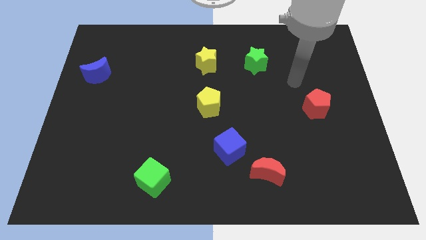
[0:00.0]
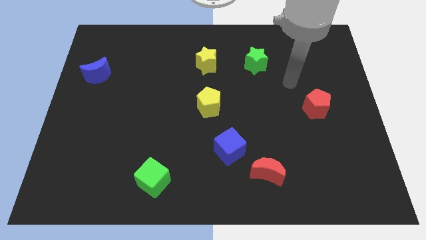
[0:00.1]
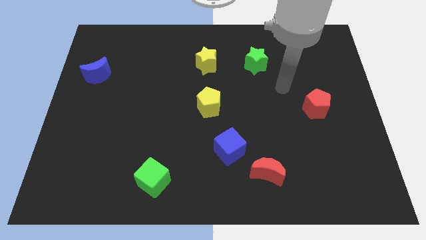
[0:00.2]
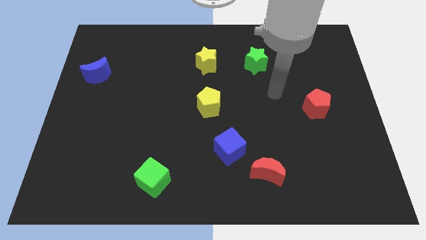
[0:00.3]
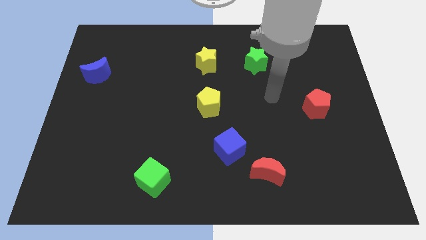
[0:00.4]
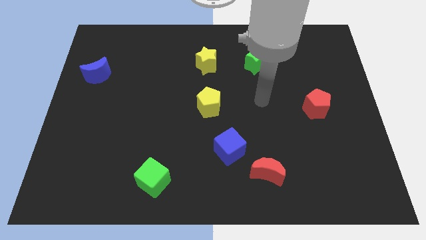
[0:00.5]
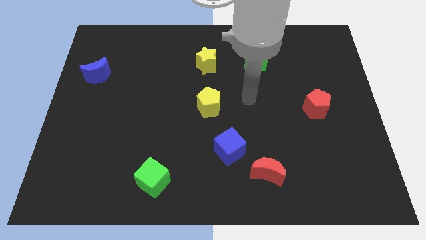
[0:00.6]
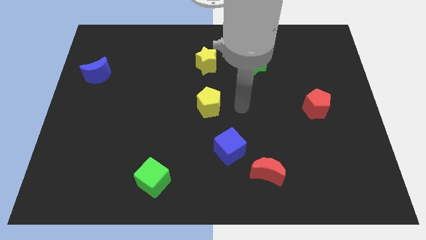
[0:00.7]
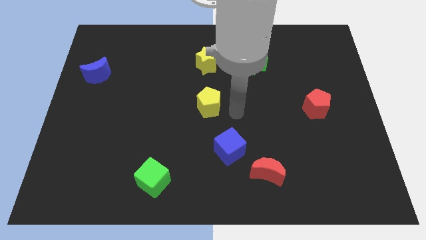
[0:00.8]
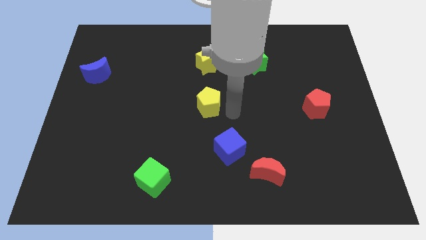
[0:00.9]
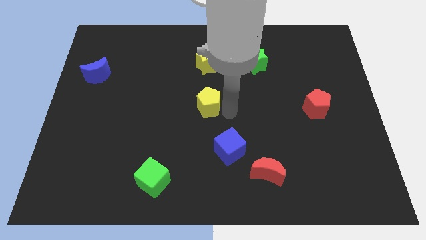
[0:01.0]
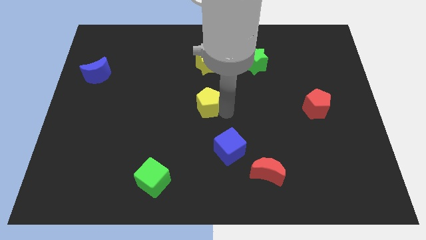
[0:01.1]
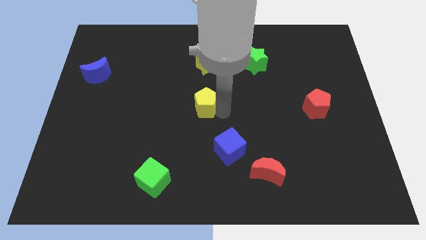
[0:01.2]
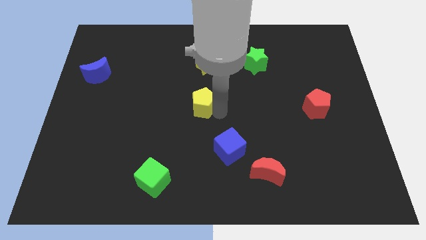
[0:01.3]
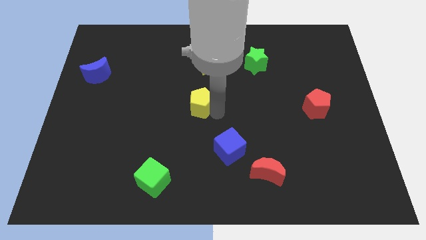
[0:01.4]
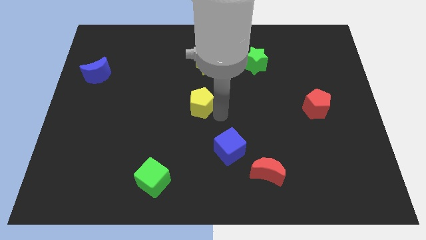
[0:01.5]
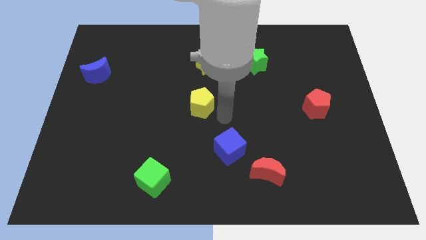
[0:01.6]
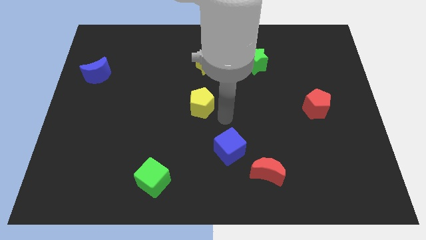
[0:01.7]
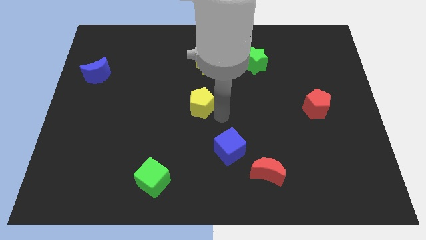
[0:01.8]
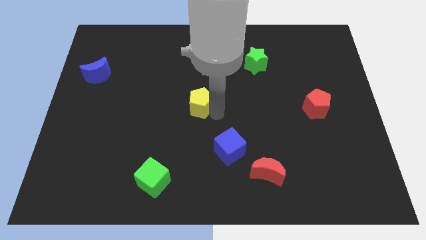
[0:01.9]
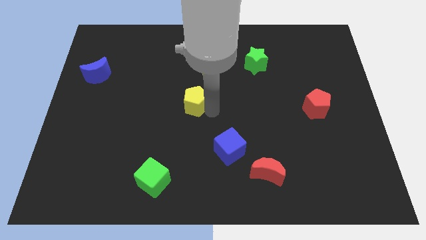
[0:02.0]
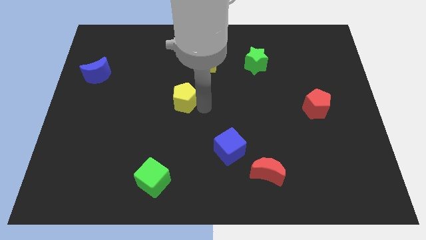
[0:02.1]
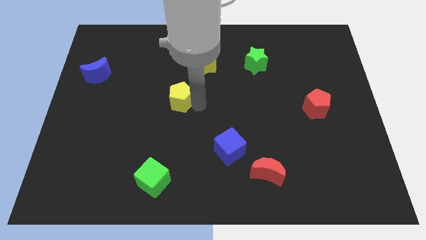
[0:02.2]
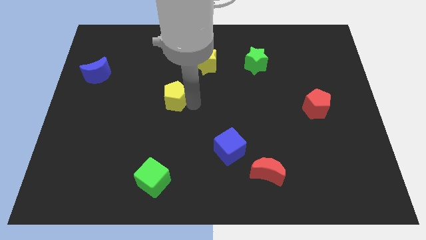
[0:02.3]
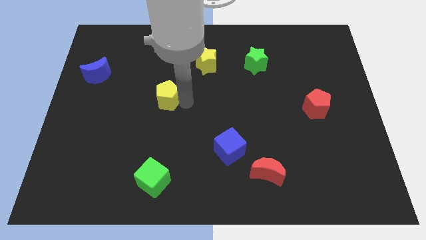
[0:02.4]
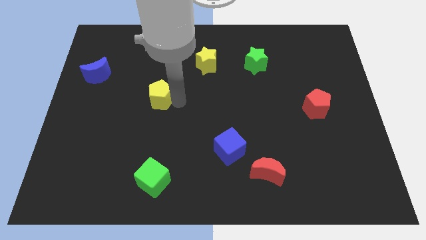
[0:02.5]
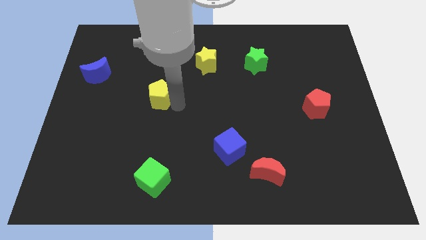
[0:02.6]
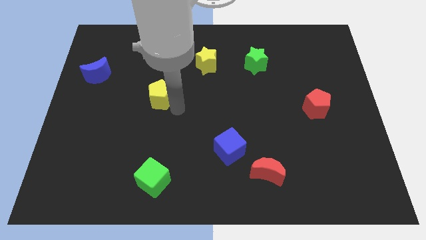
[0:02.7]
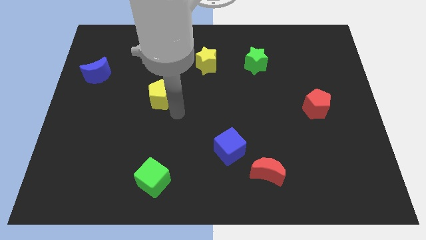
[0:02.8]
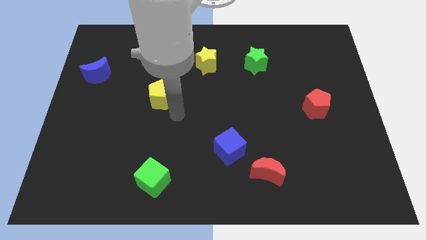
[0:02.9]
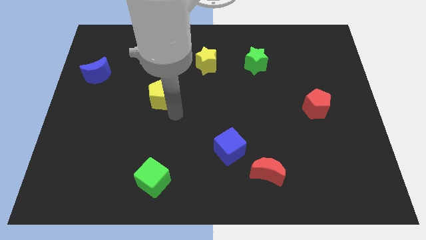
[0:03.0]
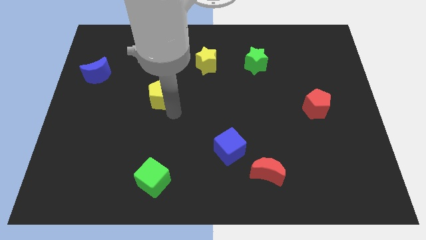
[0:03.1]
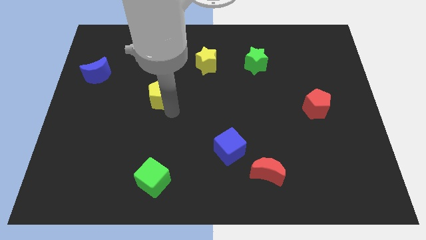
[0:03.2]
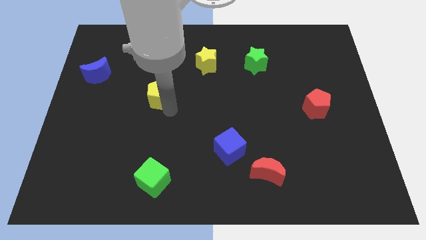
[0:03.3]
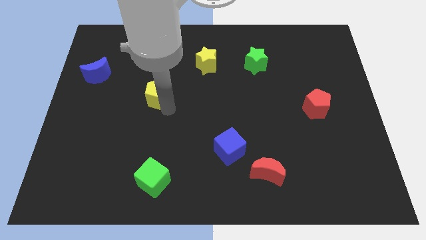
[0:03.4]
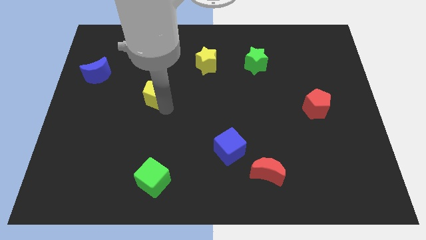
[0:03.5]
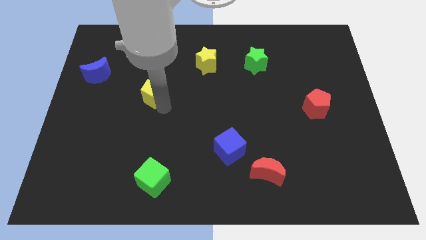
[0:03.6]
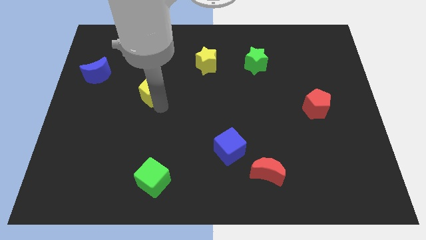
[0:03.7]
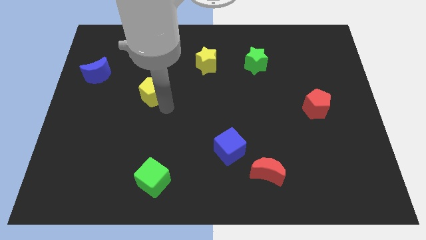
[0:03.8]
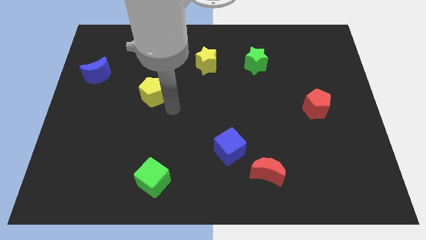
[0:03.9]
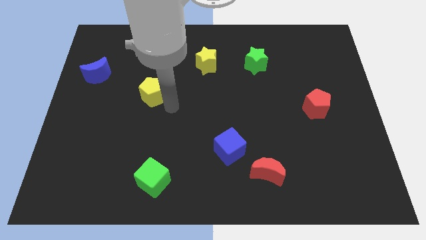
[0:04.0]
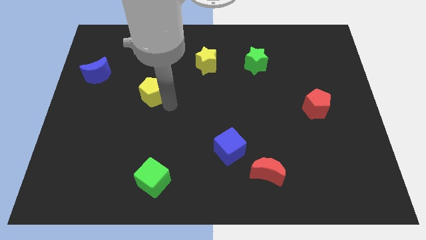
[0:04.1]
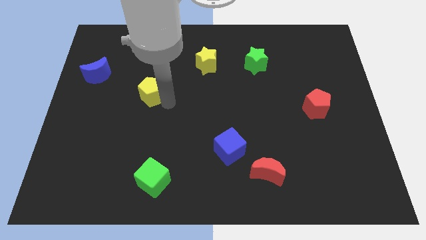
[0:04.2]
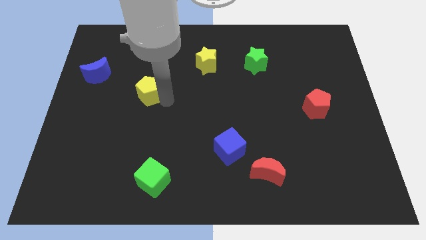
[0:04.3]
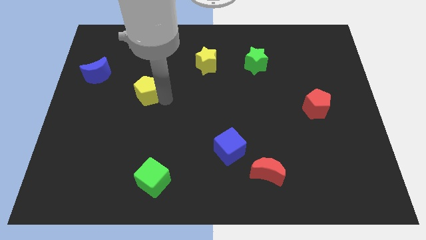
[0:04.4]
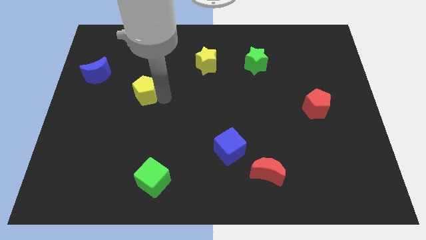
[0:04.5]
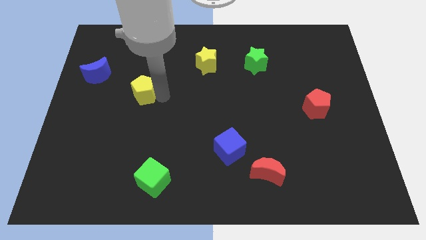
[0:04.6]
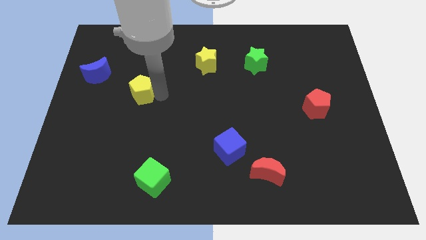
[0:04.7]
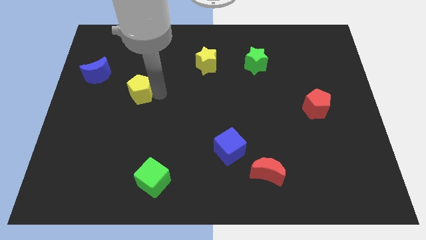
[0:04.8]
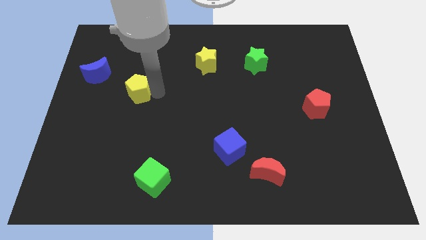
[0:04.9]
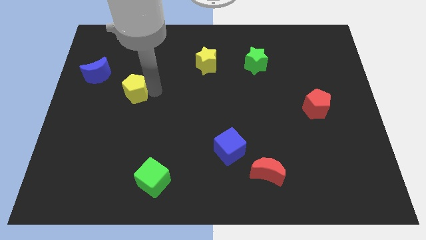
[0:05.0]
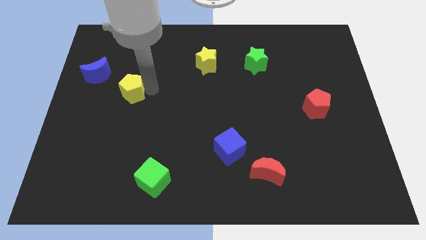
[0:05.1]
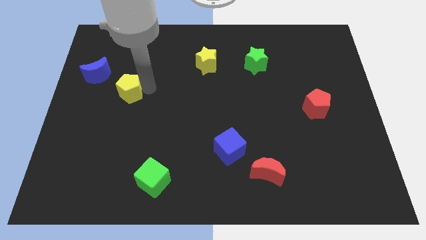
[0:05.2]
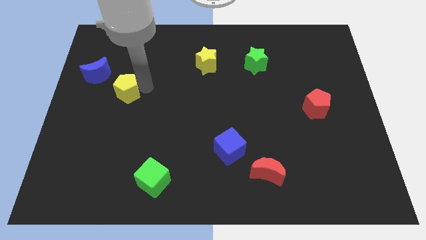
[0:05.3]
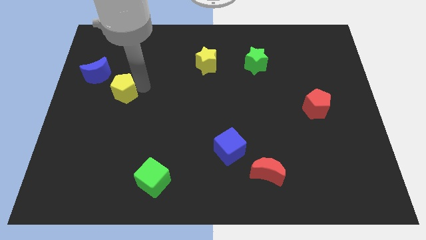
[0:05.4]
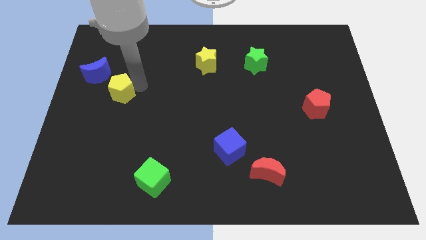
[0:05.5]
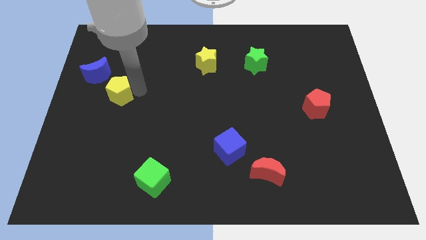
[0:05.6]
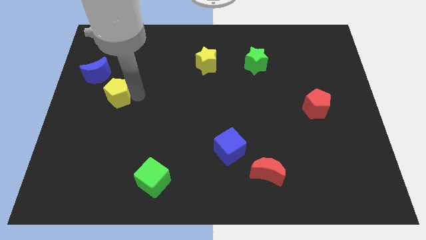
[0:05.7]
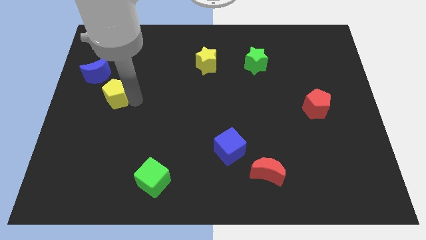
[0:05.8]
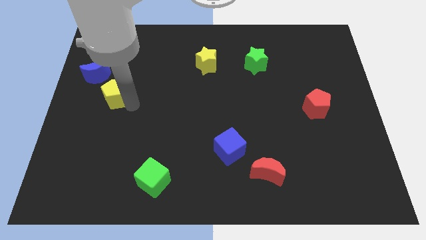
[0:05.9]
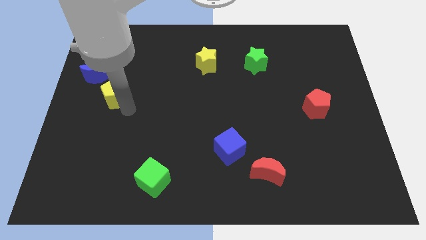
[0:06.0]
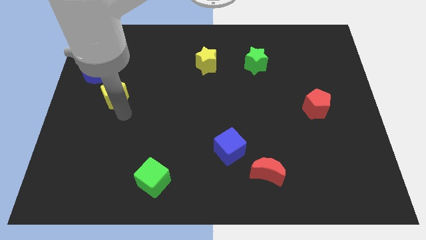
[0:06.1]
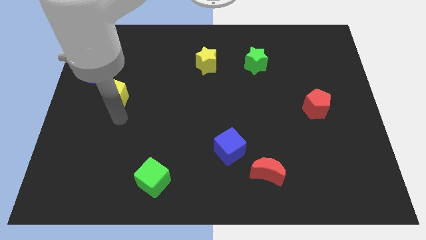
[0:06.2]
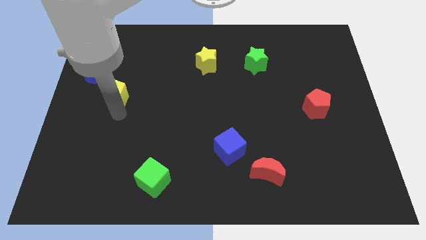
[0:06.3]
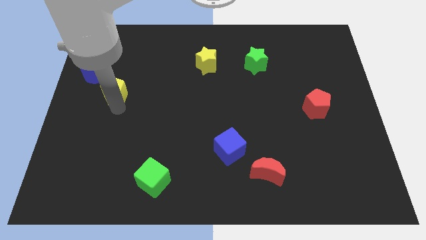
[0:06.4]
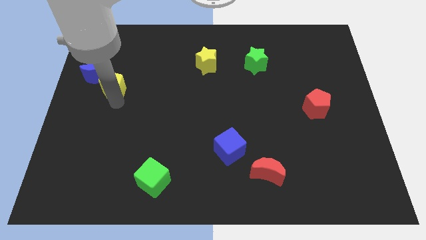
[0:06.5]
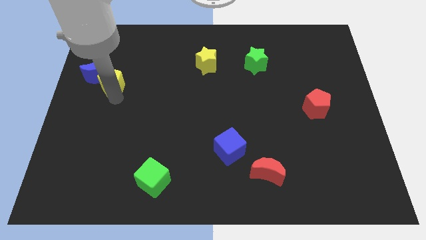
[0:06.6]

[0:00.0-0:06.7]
move the yellow pentagon to the blue moon

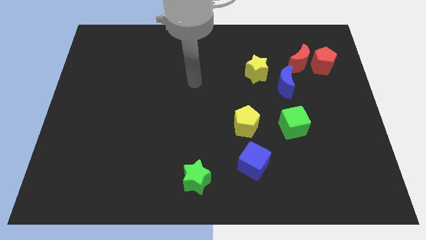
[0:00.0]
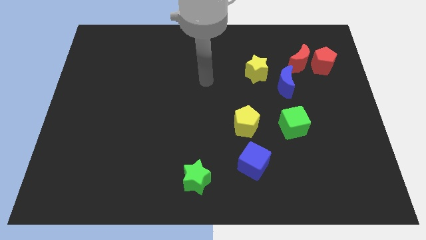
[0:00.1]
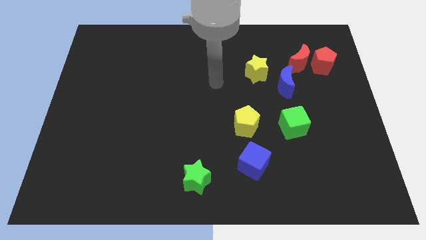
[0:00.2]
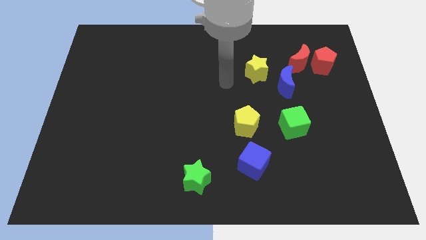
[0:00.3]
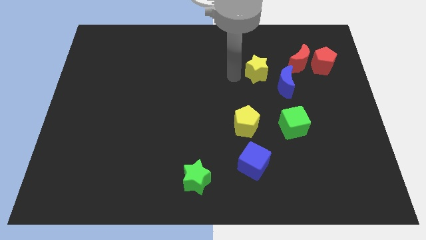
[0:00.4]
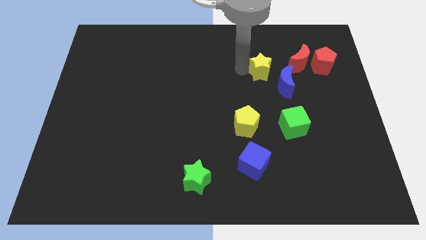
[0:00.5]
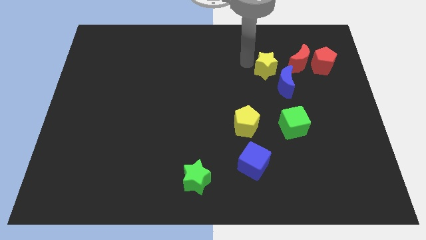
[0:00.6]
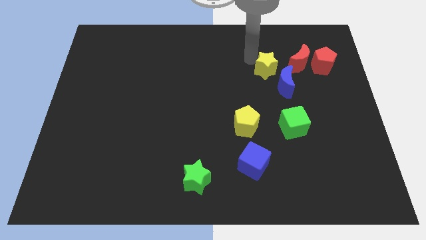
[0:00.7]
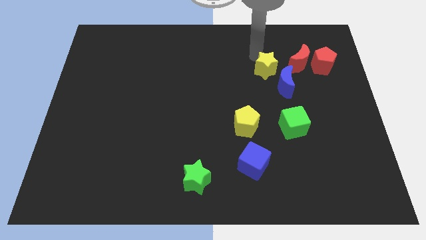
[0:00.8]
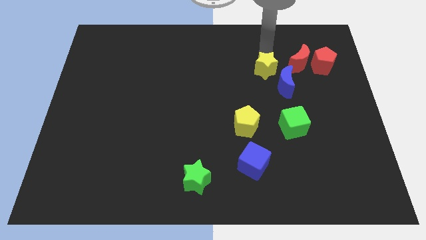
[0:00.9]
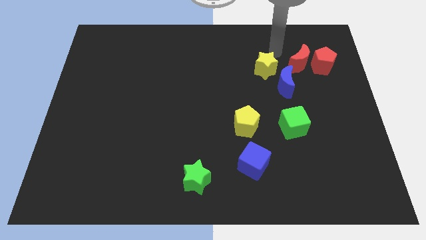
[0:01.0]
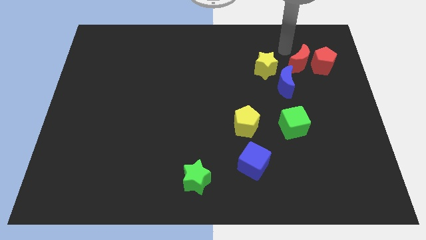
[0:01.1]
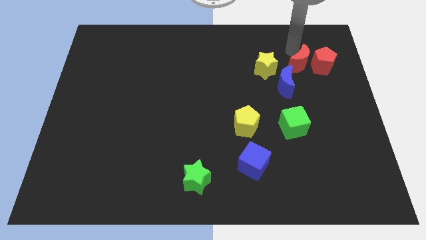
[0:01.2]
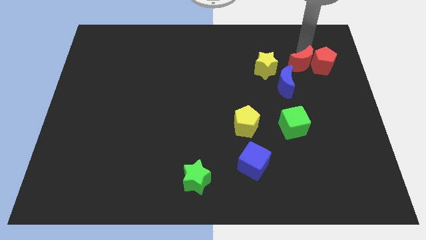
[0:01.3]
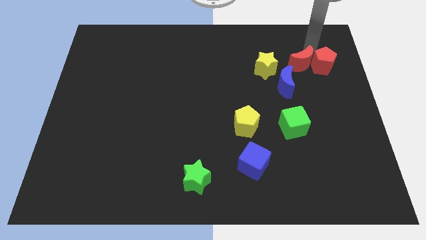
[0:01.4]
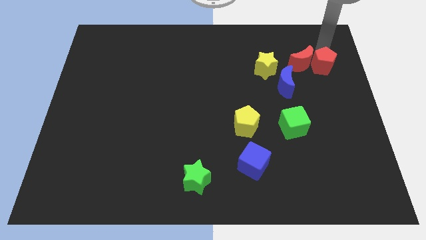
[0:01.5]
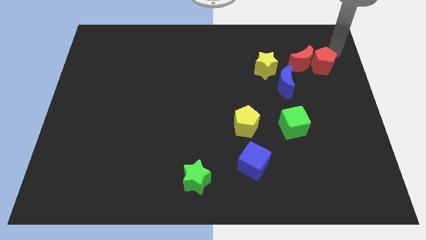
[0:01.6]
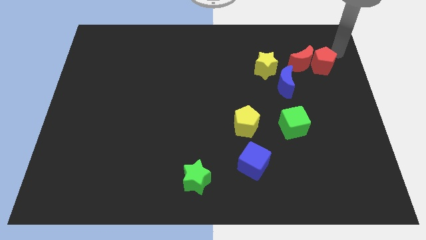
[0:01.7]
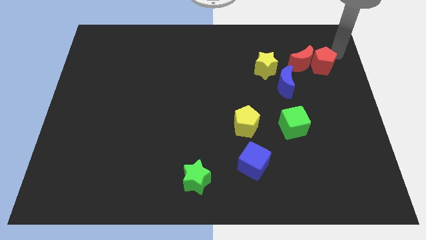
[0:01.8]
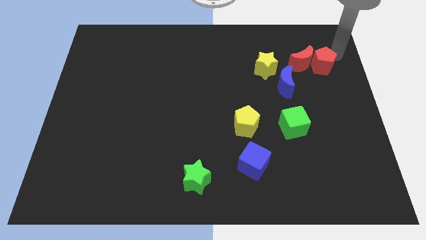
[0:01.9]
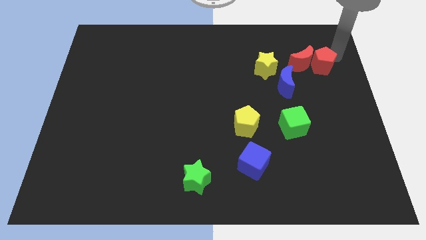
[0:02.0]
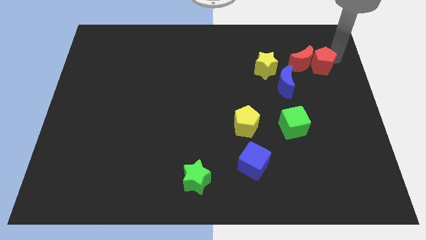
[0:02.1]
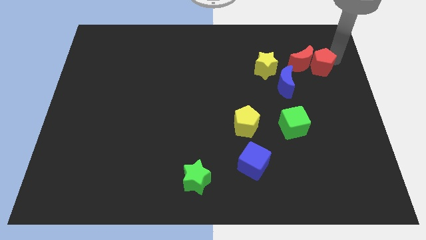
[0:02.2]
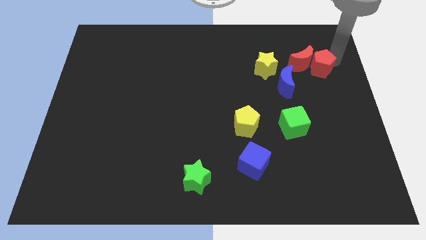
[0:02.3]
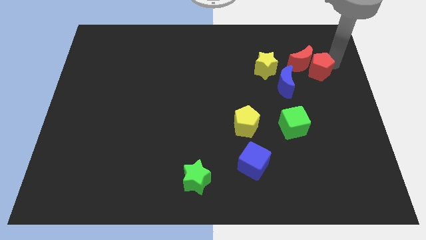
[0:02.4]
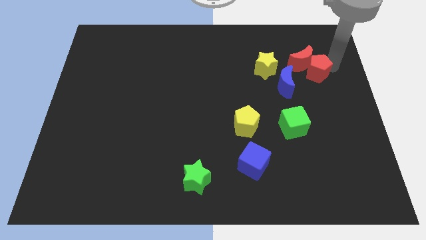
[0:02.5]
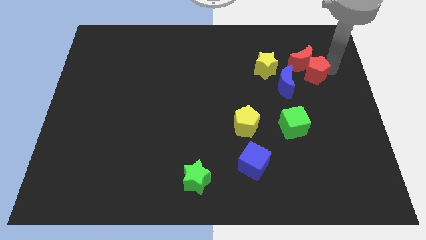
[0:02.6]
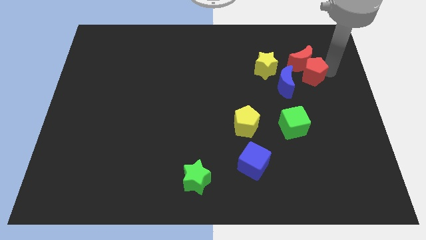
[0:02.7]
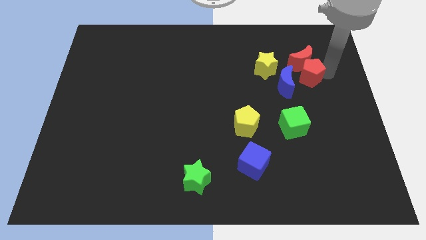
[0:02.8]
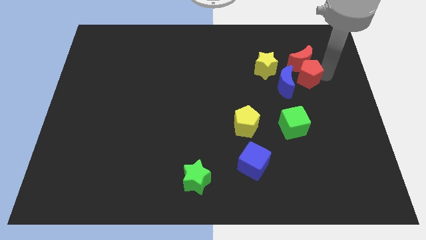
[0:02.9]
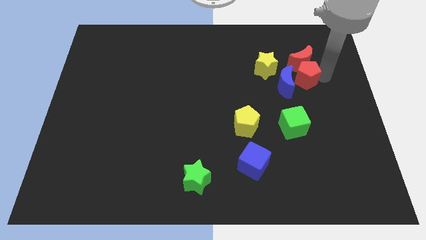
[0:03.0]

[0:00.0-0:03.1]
put the red pentagon next to the blue moon
